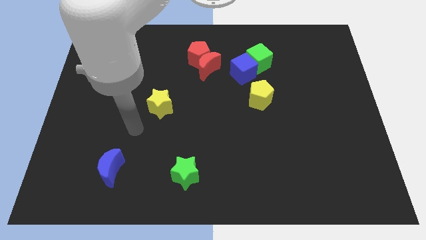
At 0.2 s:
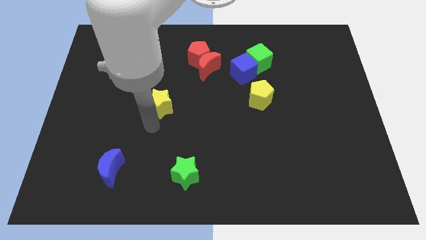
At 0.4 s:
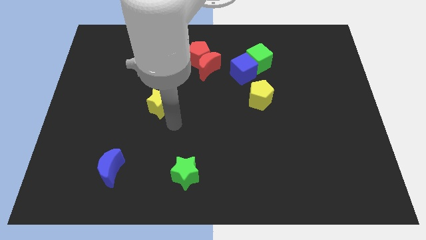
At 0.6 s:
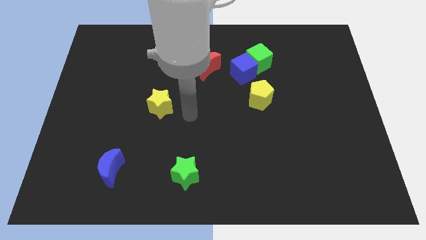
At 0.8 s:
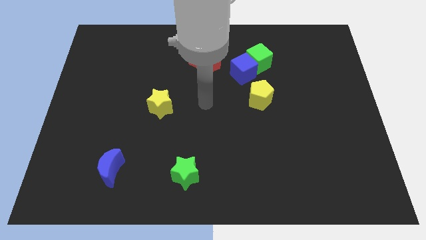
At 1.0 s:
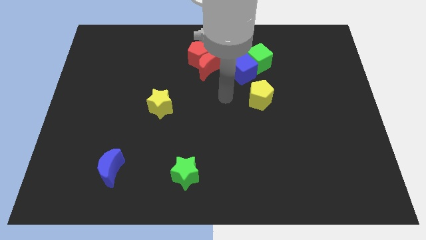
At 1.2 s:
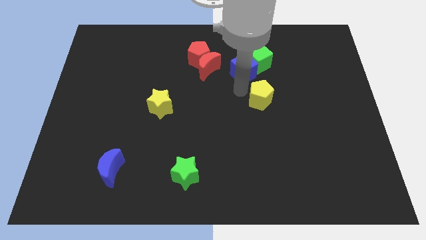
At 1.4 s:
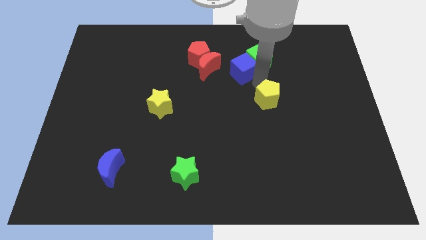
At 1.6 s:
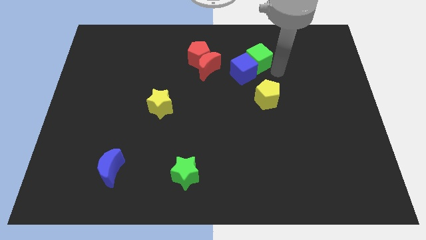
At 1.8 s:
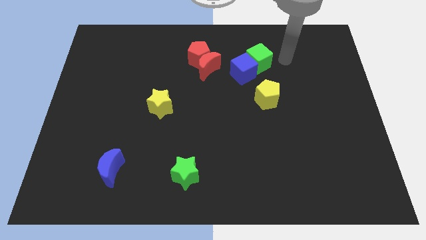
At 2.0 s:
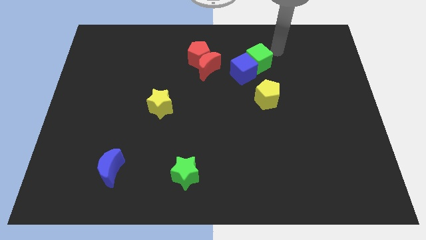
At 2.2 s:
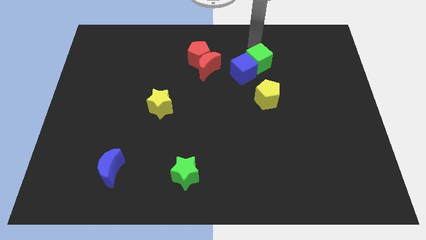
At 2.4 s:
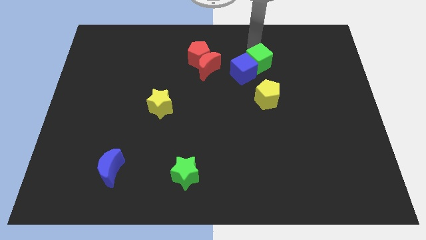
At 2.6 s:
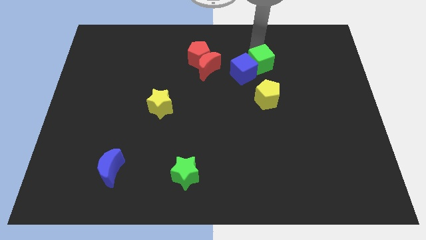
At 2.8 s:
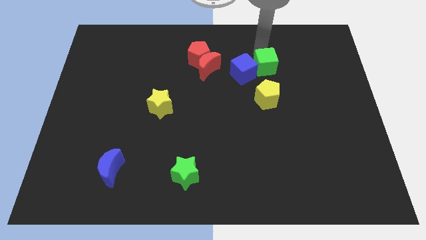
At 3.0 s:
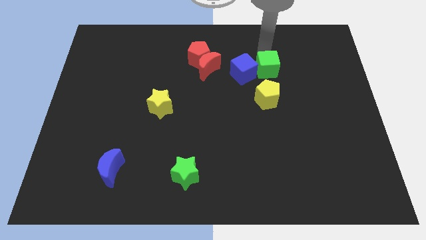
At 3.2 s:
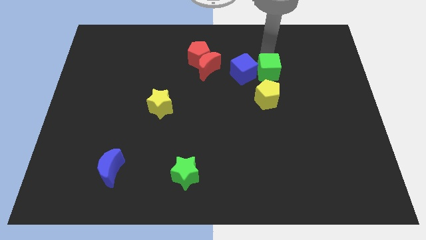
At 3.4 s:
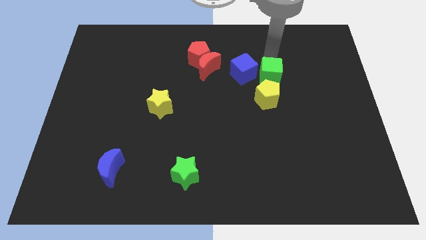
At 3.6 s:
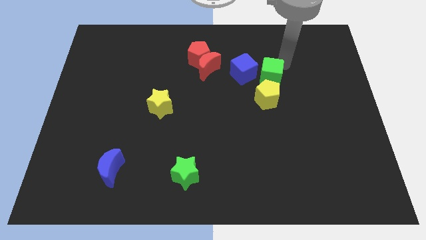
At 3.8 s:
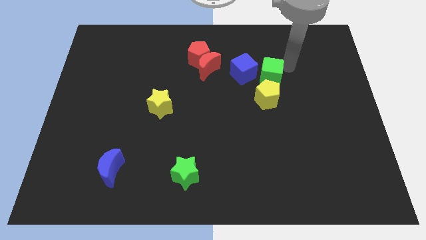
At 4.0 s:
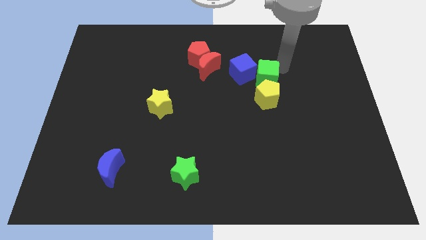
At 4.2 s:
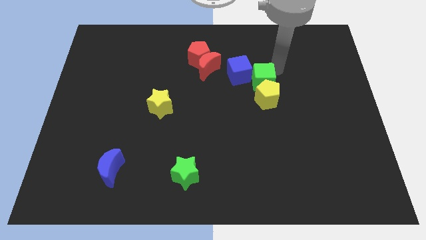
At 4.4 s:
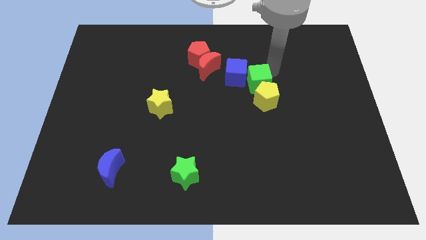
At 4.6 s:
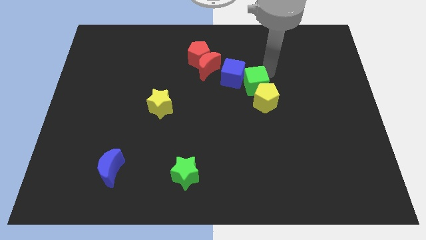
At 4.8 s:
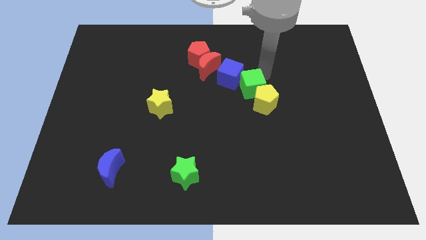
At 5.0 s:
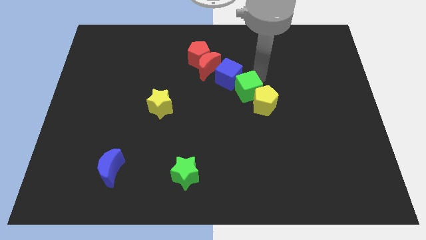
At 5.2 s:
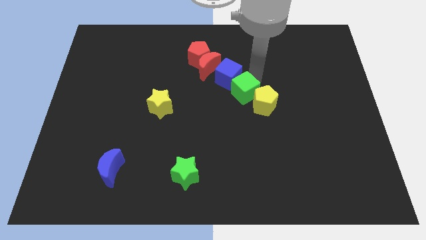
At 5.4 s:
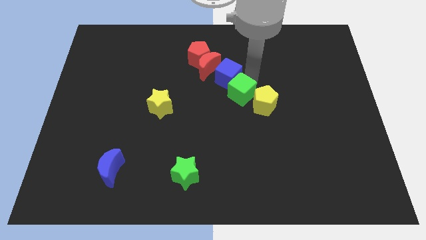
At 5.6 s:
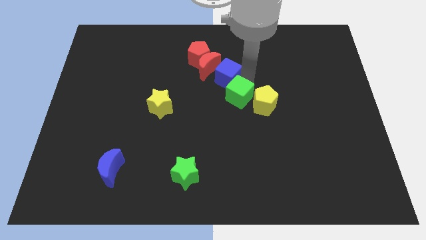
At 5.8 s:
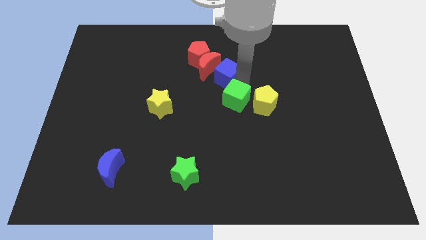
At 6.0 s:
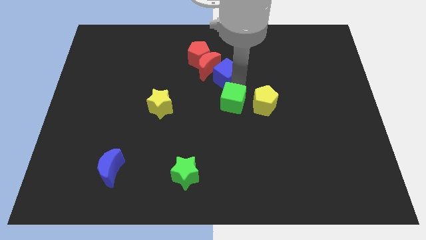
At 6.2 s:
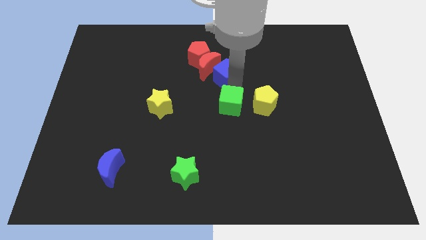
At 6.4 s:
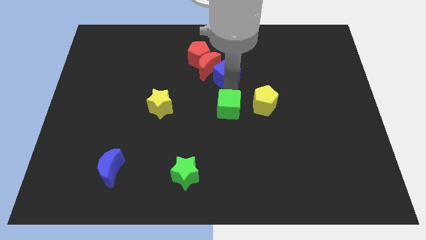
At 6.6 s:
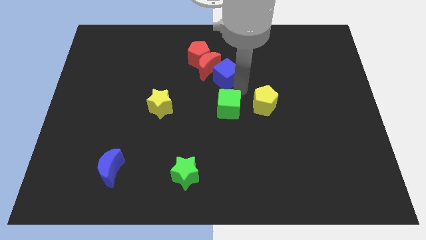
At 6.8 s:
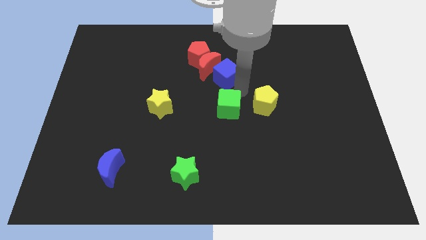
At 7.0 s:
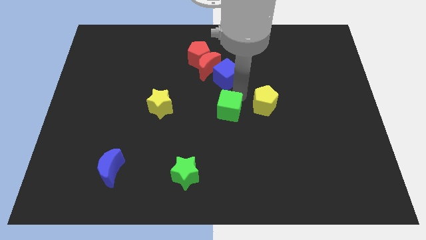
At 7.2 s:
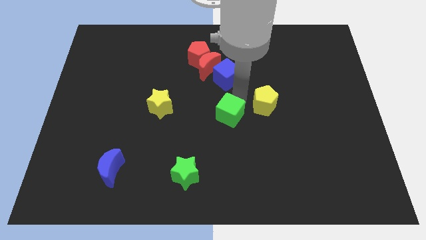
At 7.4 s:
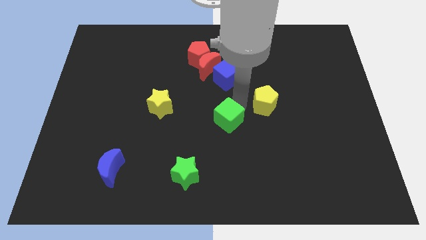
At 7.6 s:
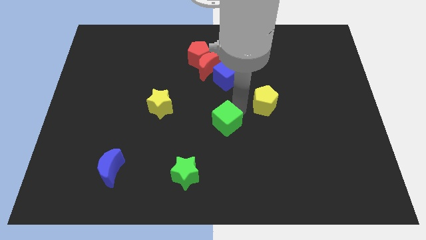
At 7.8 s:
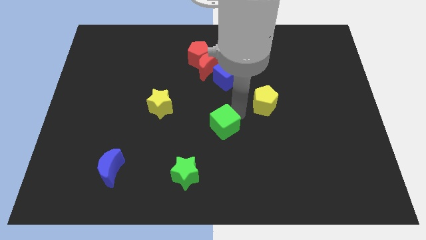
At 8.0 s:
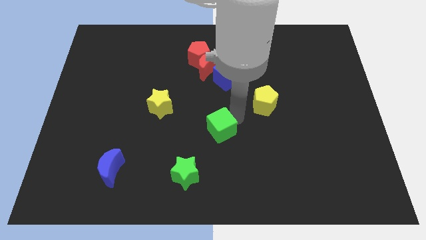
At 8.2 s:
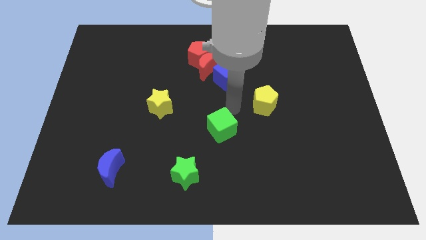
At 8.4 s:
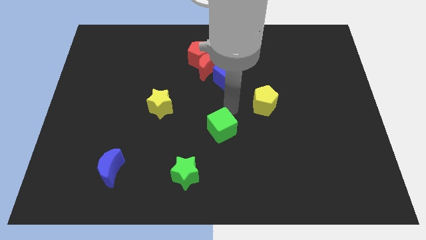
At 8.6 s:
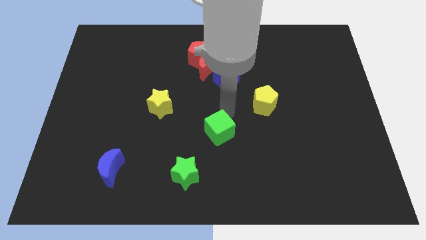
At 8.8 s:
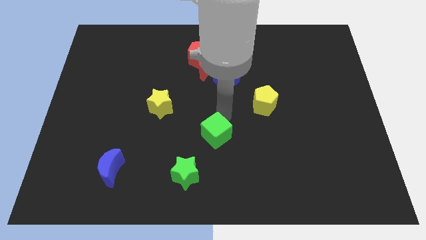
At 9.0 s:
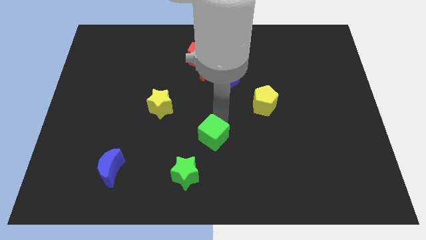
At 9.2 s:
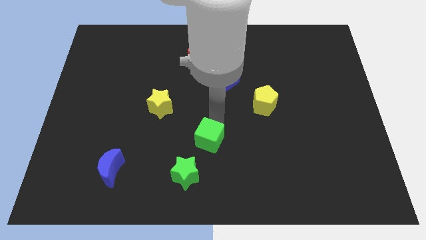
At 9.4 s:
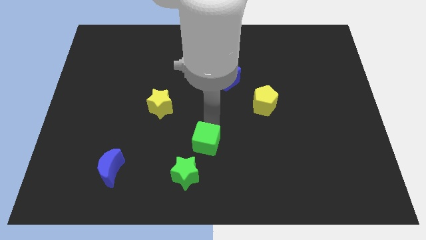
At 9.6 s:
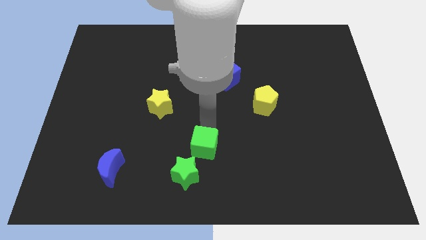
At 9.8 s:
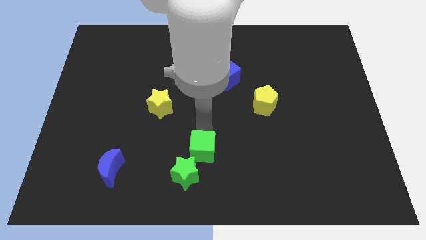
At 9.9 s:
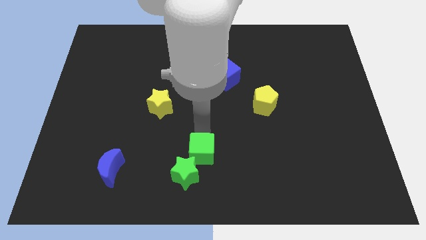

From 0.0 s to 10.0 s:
push the green cube towards the green star

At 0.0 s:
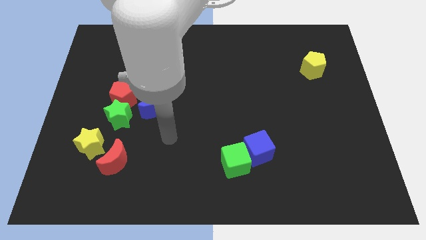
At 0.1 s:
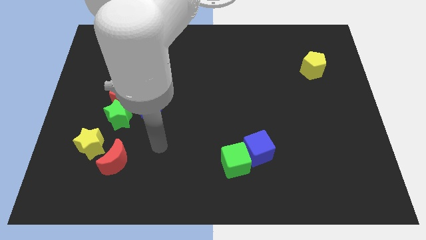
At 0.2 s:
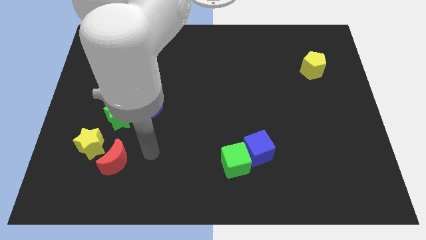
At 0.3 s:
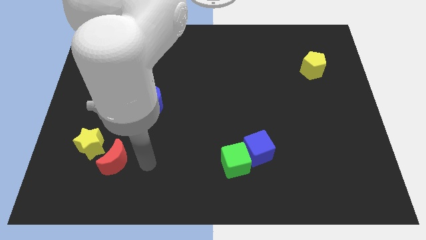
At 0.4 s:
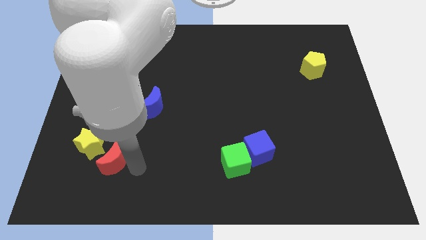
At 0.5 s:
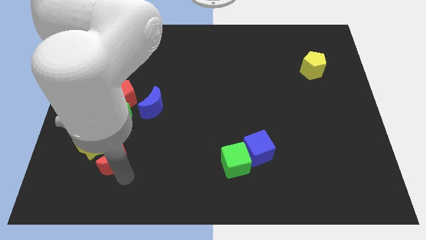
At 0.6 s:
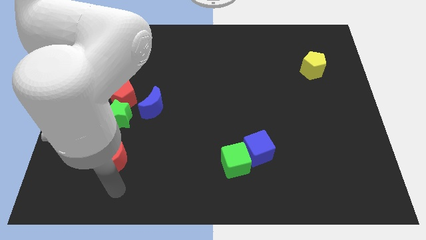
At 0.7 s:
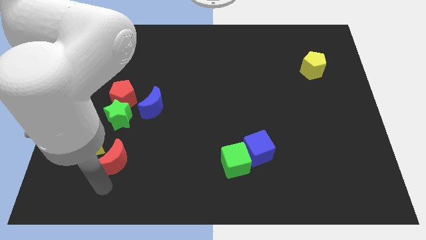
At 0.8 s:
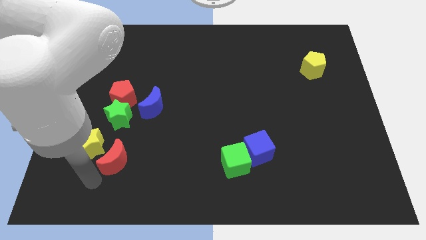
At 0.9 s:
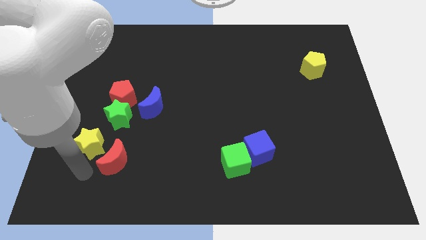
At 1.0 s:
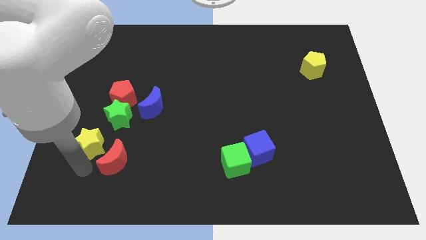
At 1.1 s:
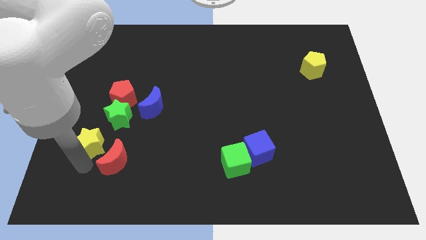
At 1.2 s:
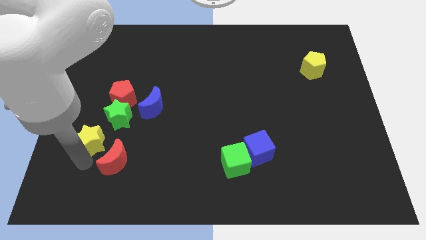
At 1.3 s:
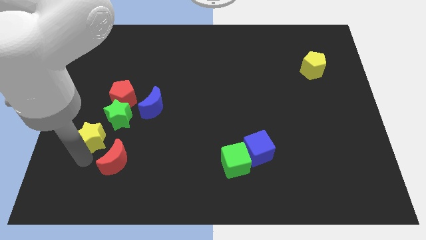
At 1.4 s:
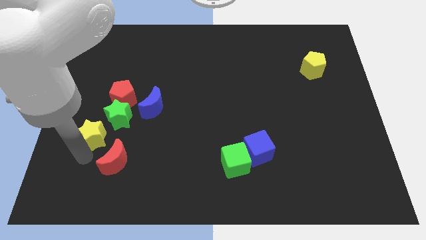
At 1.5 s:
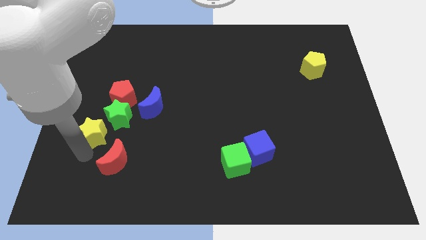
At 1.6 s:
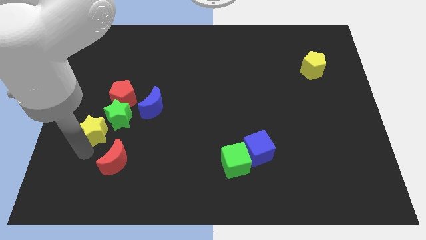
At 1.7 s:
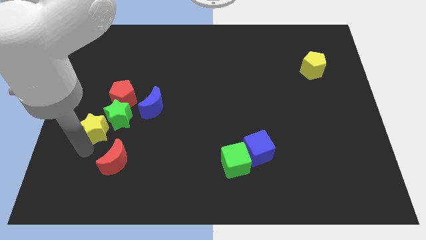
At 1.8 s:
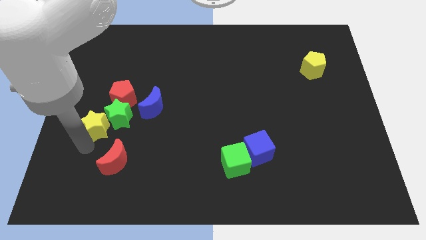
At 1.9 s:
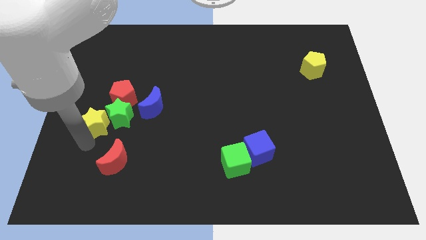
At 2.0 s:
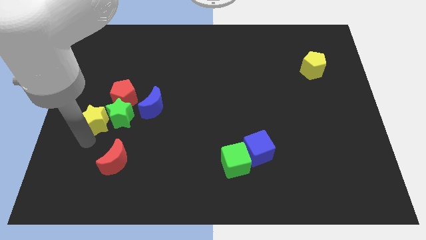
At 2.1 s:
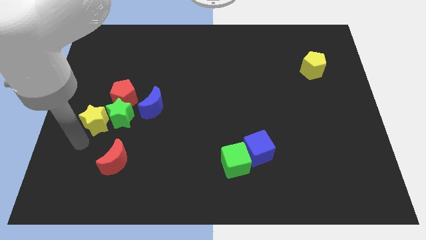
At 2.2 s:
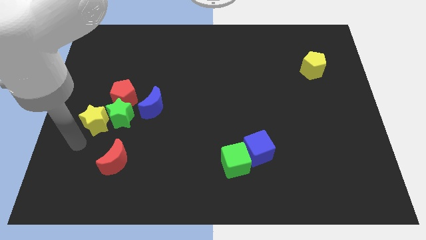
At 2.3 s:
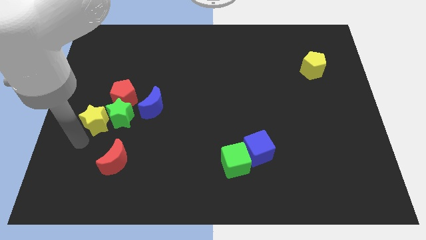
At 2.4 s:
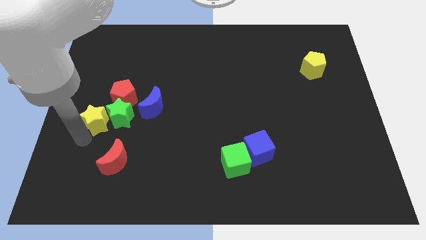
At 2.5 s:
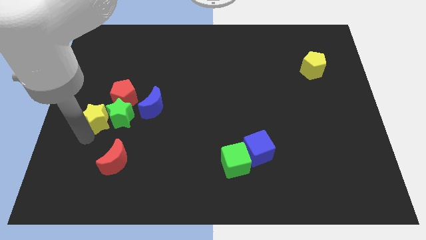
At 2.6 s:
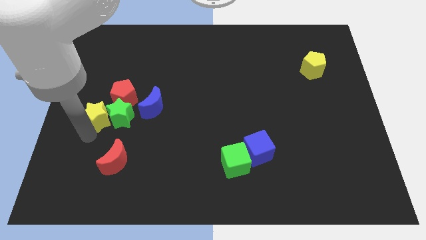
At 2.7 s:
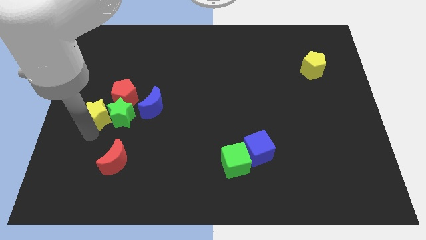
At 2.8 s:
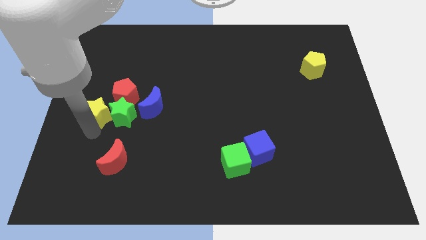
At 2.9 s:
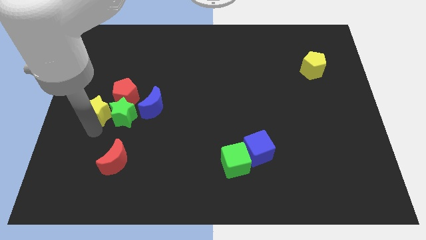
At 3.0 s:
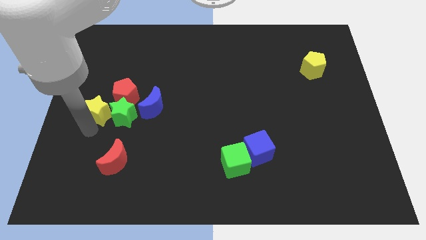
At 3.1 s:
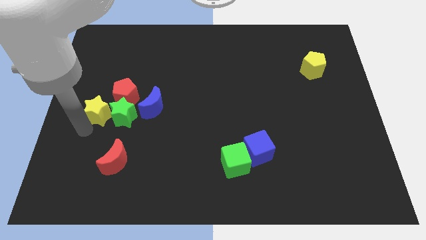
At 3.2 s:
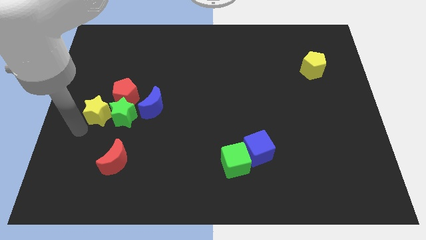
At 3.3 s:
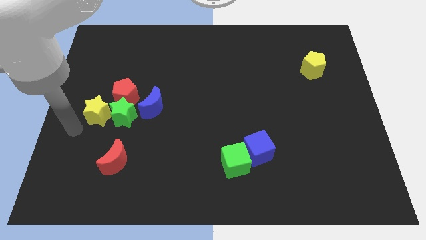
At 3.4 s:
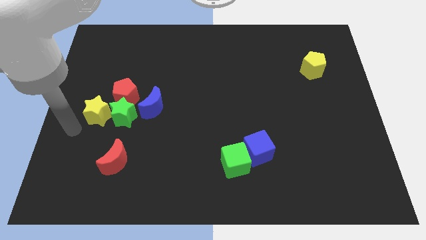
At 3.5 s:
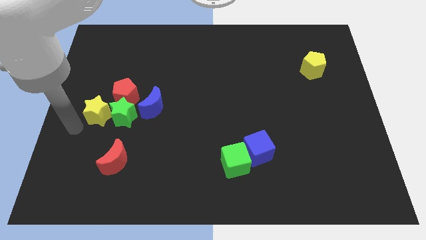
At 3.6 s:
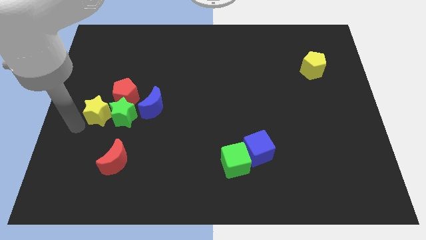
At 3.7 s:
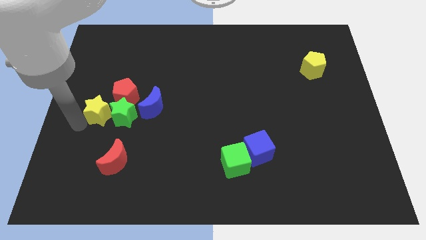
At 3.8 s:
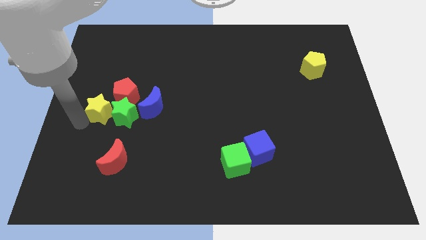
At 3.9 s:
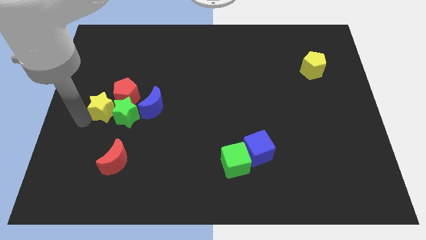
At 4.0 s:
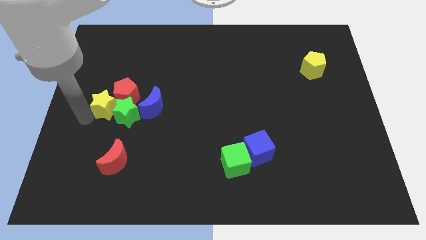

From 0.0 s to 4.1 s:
push the yellow star to the red pentagon
